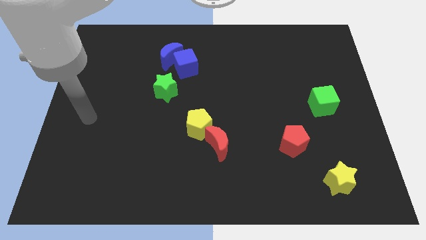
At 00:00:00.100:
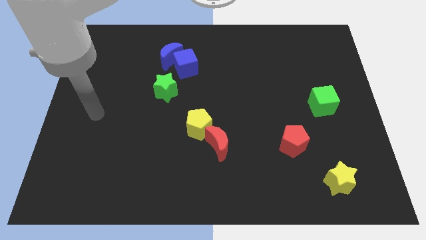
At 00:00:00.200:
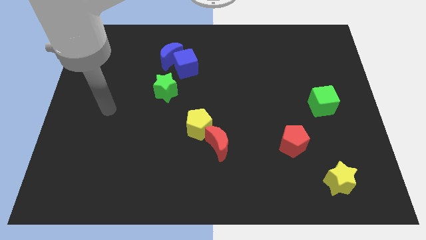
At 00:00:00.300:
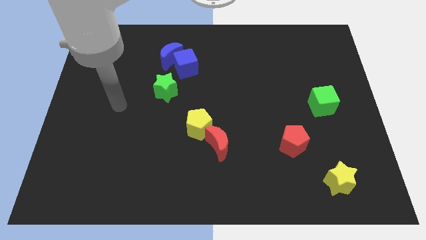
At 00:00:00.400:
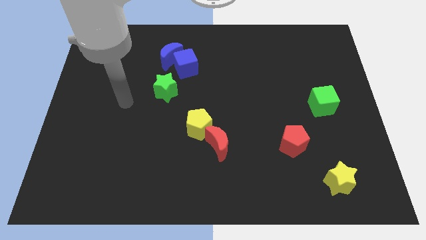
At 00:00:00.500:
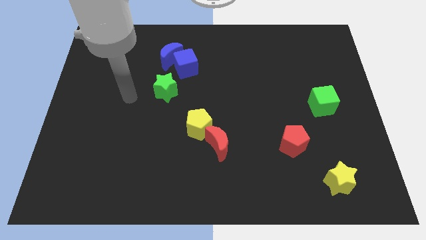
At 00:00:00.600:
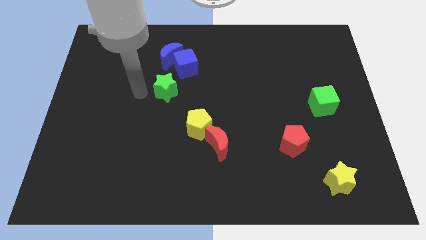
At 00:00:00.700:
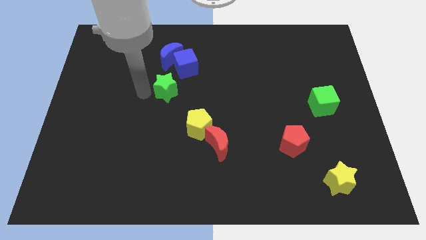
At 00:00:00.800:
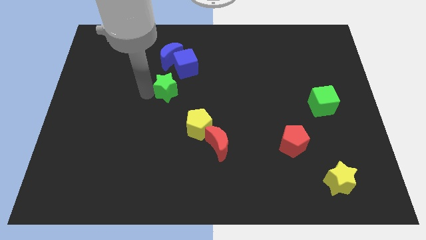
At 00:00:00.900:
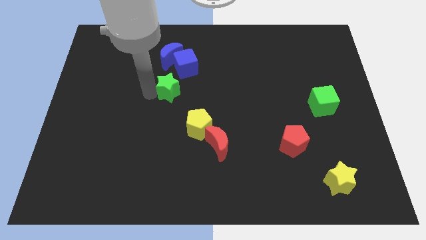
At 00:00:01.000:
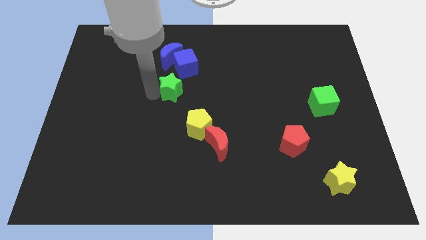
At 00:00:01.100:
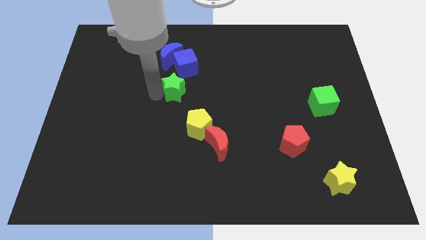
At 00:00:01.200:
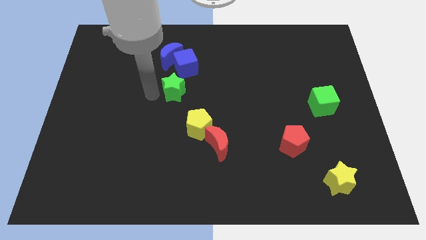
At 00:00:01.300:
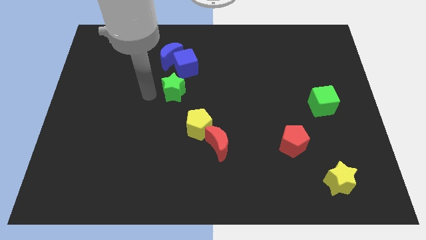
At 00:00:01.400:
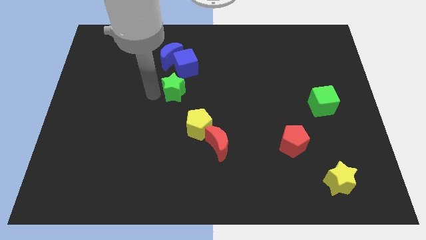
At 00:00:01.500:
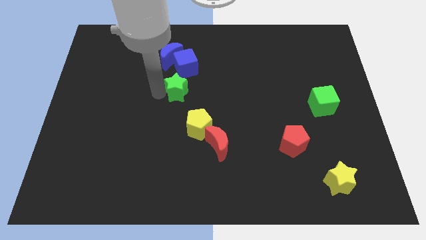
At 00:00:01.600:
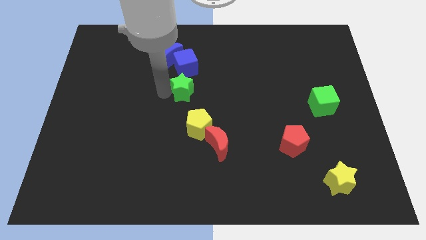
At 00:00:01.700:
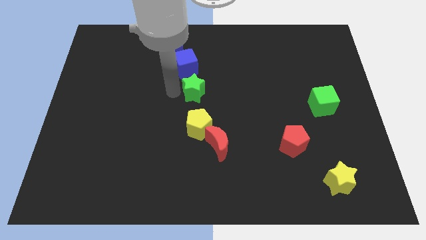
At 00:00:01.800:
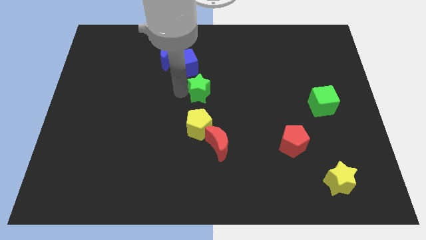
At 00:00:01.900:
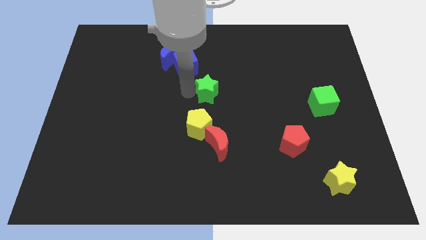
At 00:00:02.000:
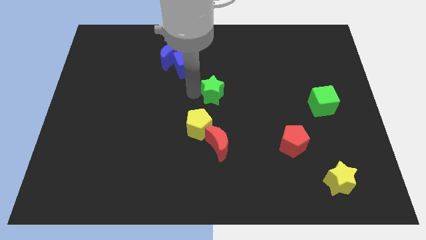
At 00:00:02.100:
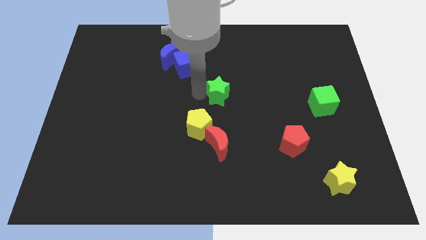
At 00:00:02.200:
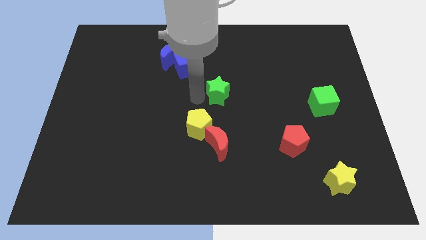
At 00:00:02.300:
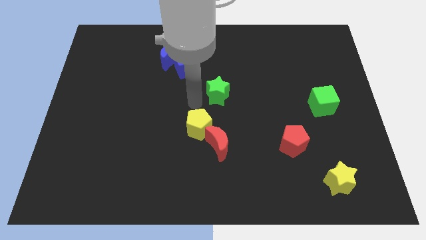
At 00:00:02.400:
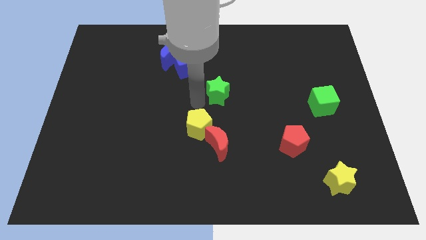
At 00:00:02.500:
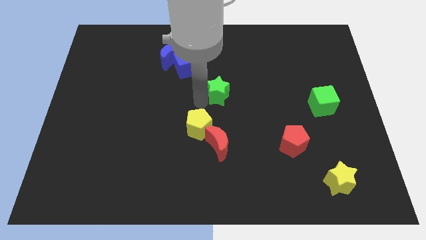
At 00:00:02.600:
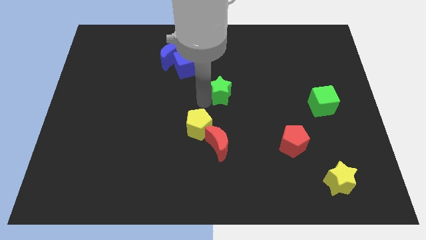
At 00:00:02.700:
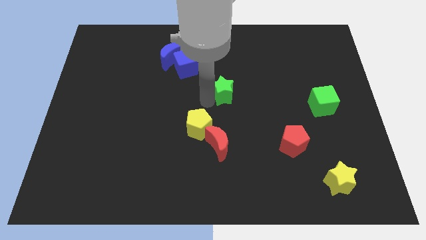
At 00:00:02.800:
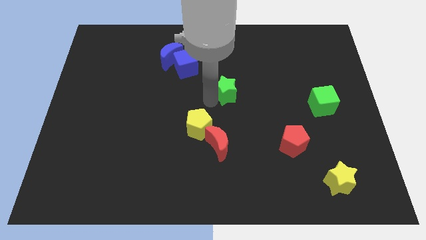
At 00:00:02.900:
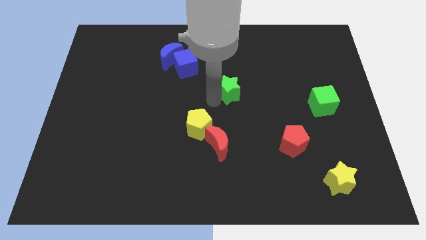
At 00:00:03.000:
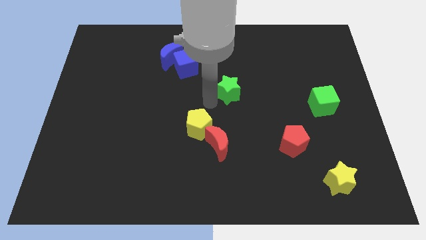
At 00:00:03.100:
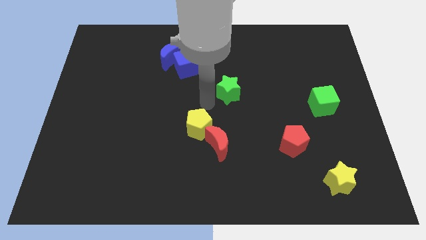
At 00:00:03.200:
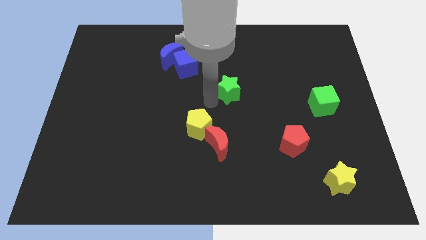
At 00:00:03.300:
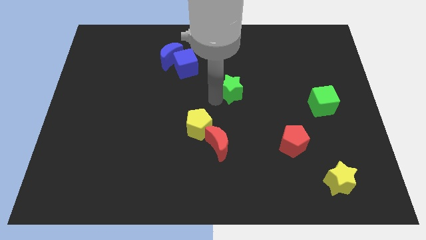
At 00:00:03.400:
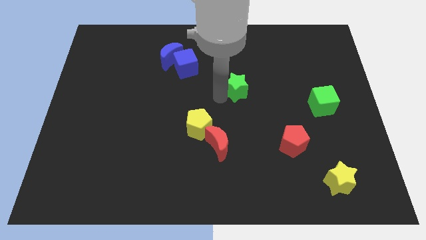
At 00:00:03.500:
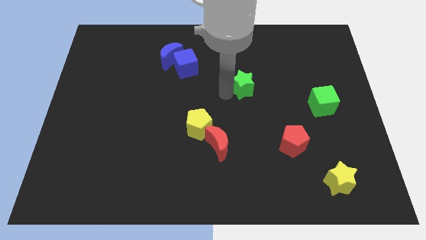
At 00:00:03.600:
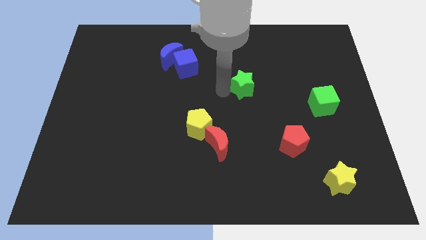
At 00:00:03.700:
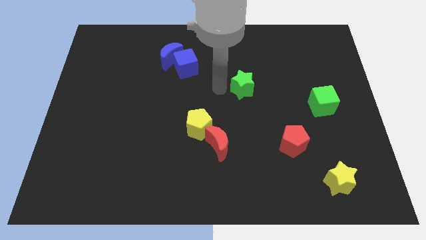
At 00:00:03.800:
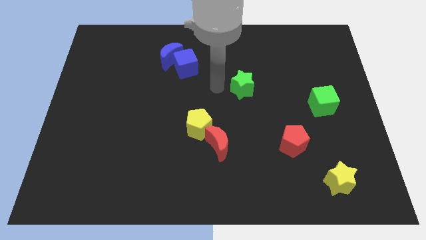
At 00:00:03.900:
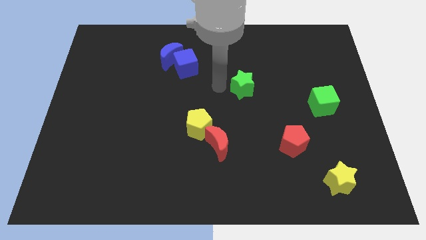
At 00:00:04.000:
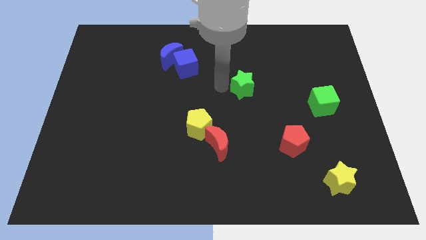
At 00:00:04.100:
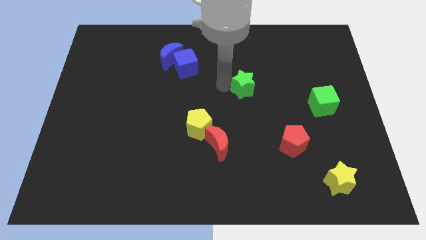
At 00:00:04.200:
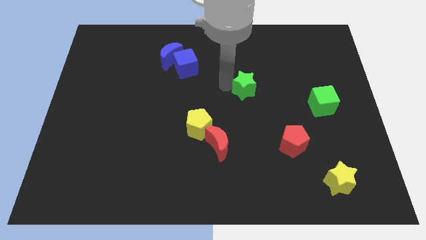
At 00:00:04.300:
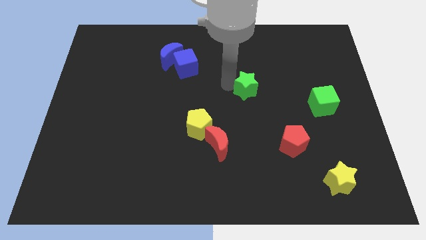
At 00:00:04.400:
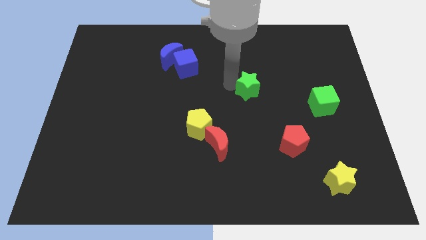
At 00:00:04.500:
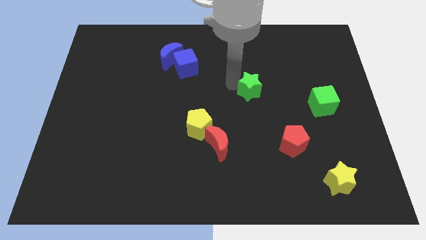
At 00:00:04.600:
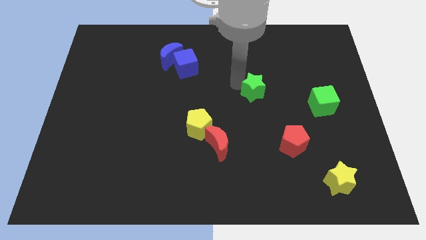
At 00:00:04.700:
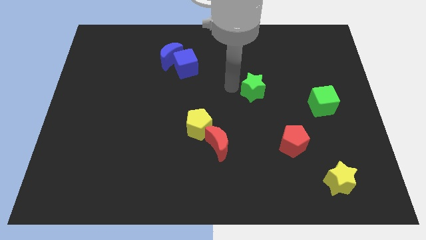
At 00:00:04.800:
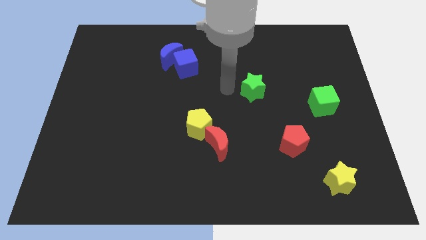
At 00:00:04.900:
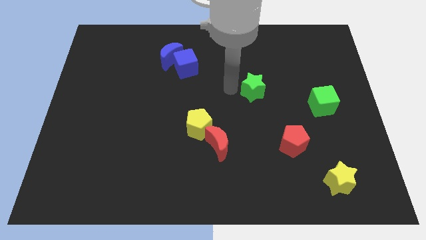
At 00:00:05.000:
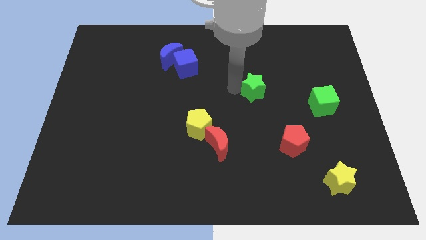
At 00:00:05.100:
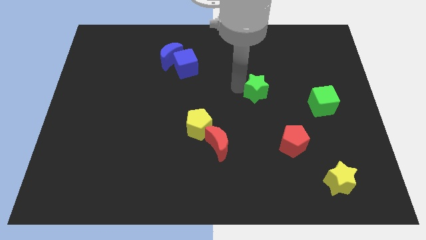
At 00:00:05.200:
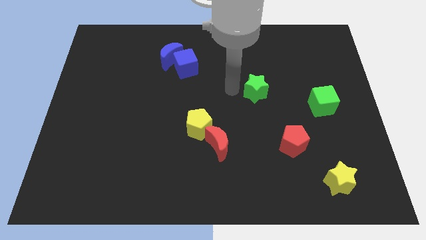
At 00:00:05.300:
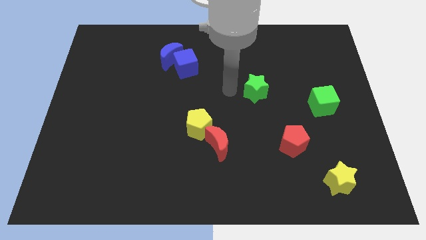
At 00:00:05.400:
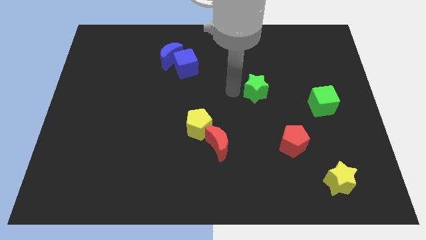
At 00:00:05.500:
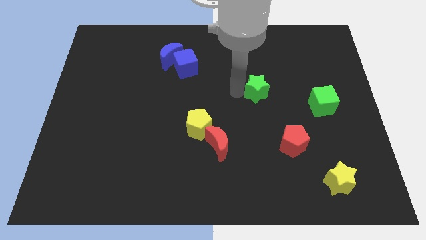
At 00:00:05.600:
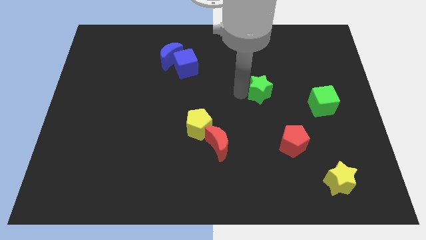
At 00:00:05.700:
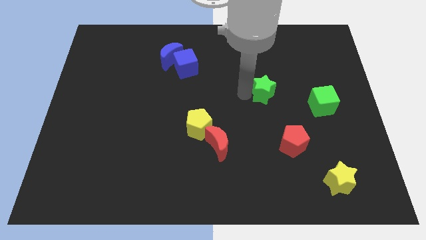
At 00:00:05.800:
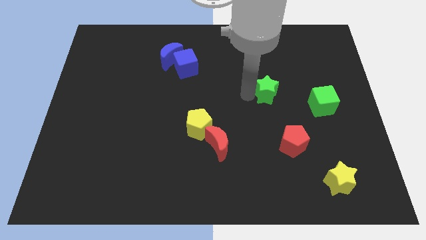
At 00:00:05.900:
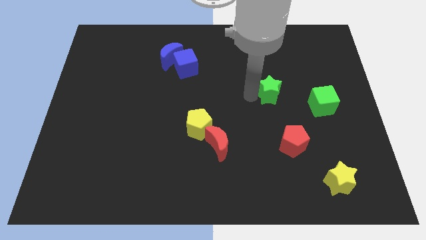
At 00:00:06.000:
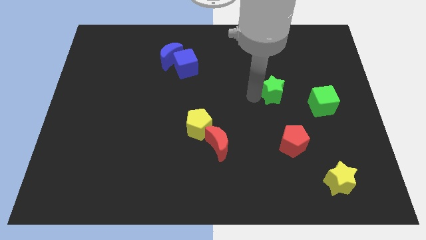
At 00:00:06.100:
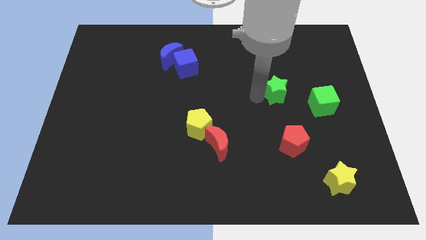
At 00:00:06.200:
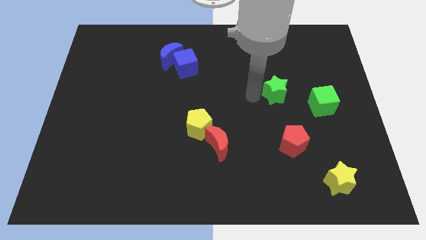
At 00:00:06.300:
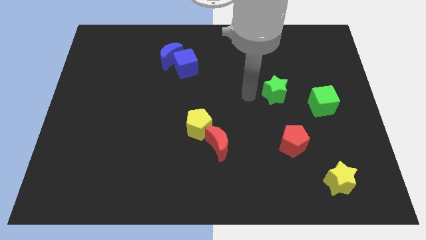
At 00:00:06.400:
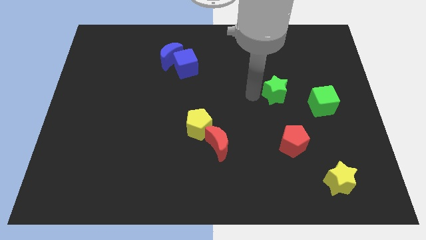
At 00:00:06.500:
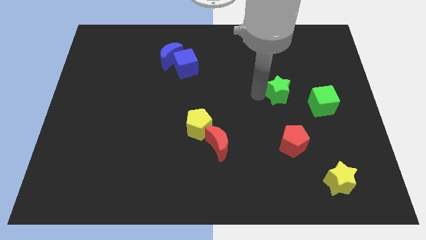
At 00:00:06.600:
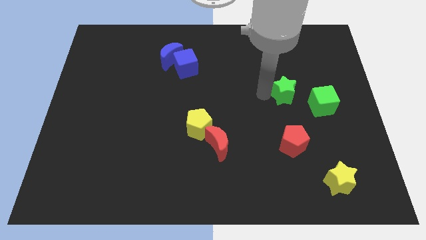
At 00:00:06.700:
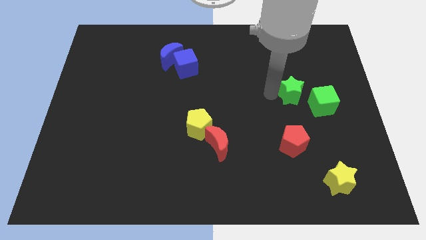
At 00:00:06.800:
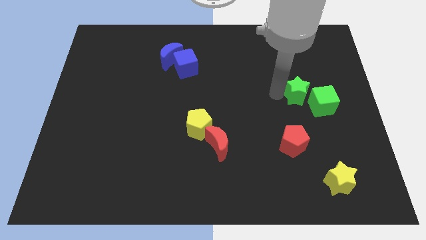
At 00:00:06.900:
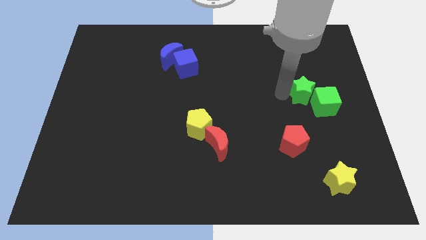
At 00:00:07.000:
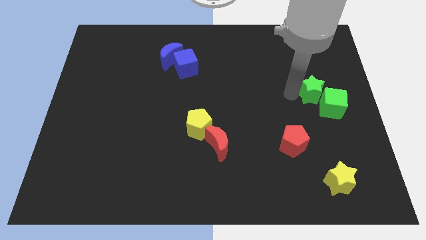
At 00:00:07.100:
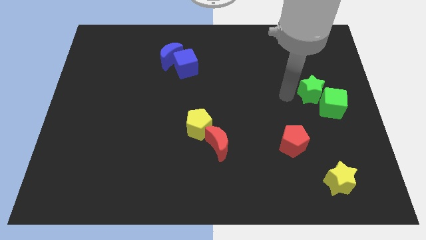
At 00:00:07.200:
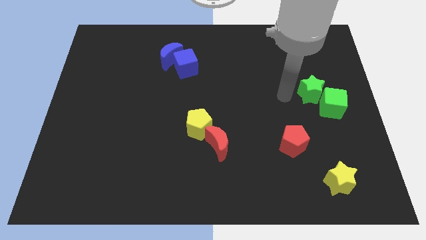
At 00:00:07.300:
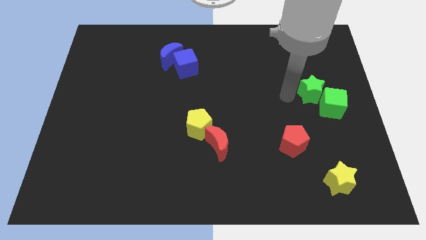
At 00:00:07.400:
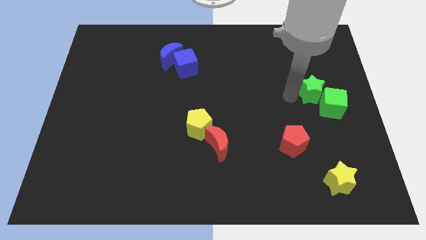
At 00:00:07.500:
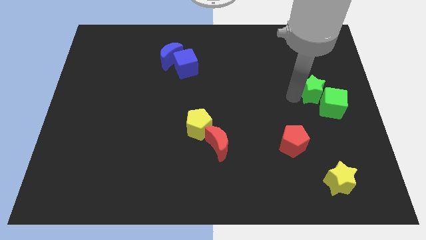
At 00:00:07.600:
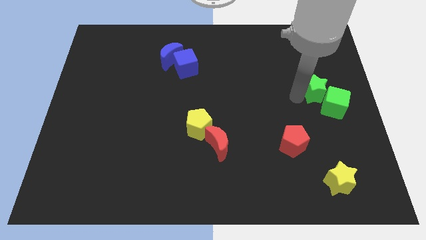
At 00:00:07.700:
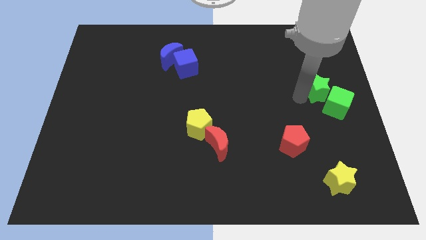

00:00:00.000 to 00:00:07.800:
push the green star to the right side
